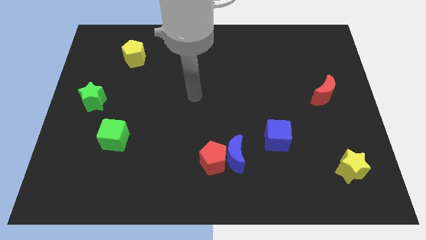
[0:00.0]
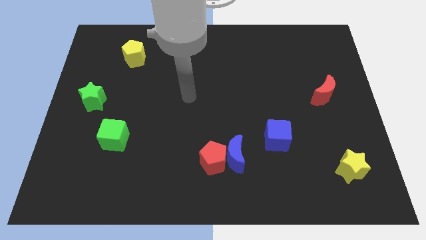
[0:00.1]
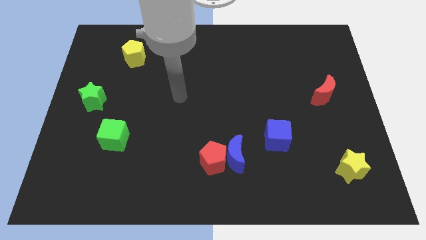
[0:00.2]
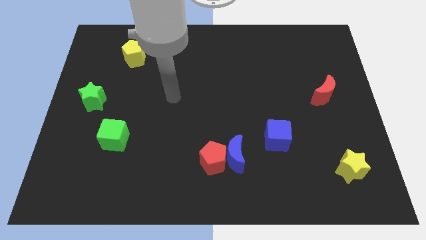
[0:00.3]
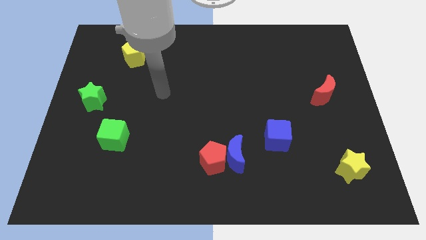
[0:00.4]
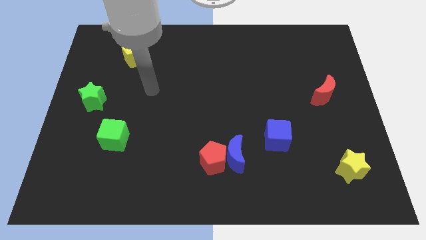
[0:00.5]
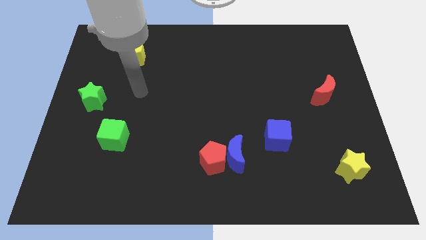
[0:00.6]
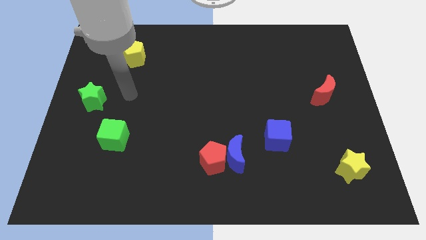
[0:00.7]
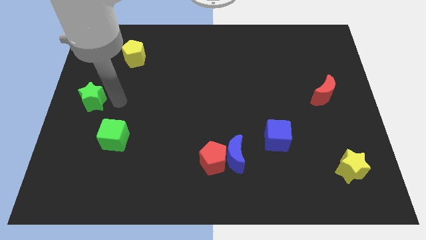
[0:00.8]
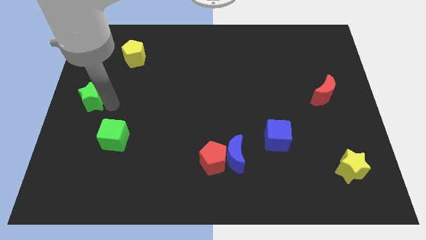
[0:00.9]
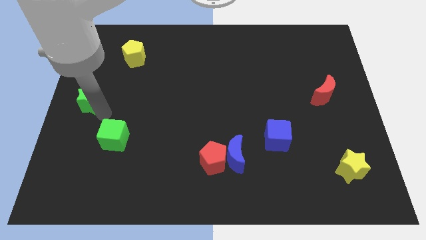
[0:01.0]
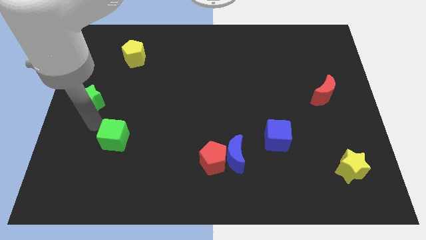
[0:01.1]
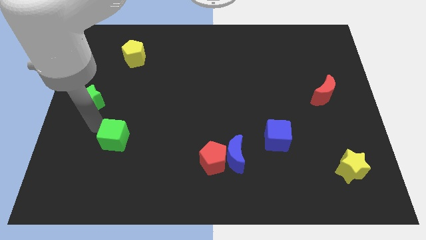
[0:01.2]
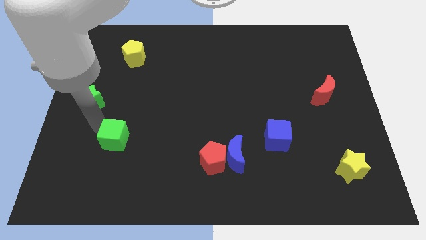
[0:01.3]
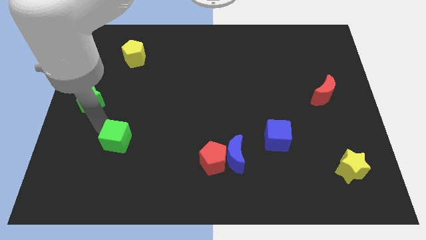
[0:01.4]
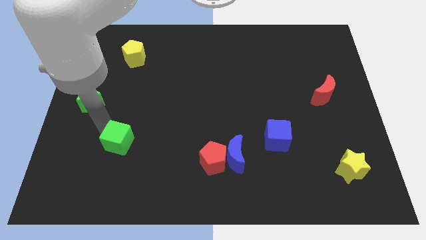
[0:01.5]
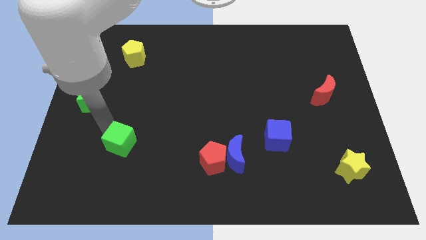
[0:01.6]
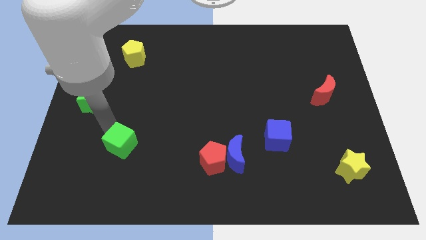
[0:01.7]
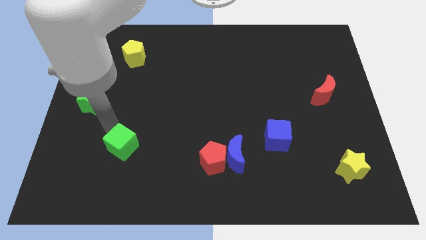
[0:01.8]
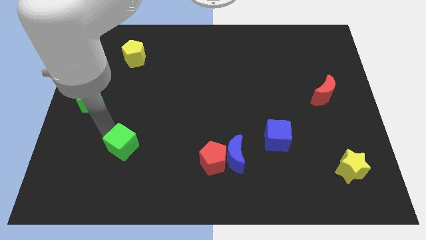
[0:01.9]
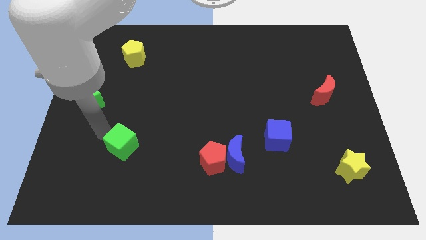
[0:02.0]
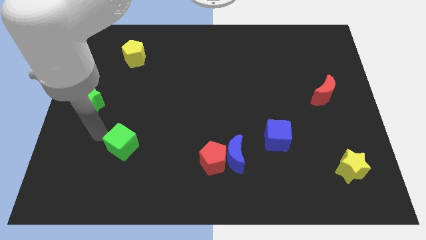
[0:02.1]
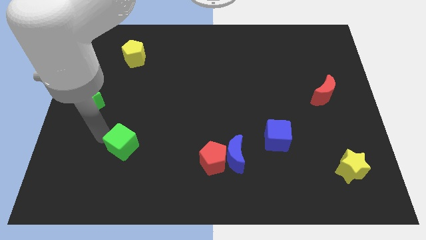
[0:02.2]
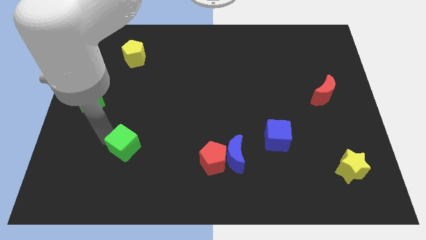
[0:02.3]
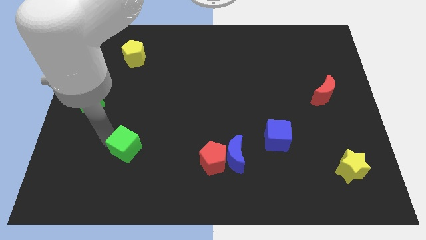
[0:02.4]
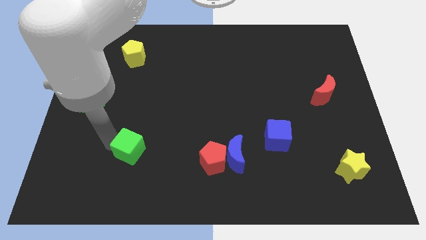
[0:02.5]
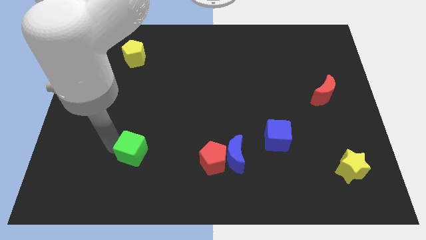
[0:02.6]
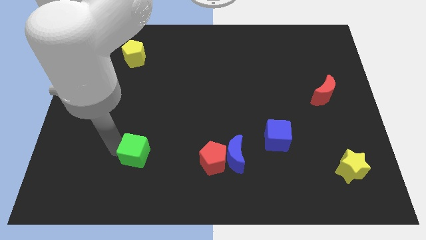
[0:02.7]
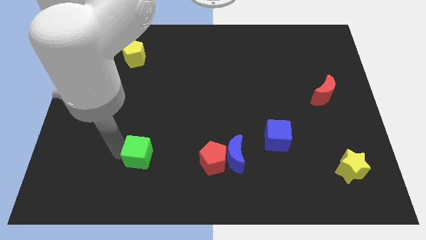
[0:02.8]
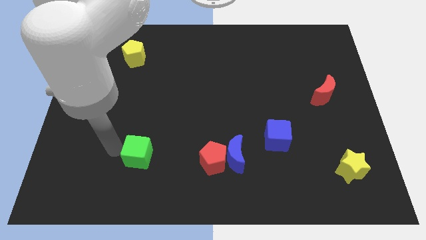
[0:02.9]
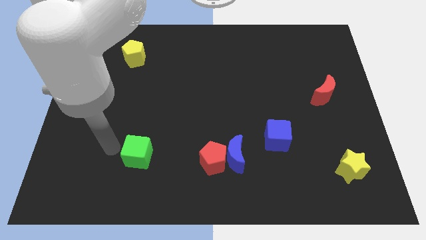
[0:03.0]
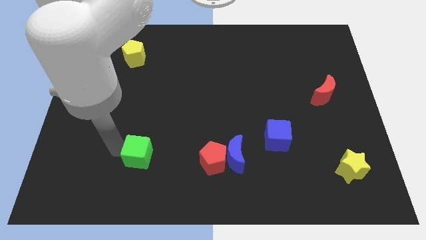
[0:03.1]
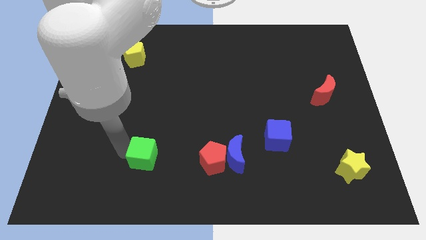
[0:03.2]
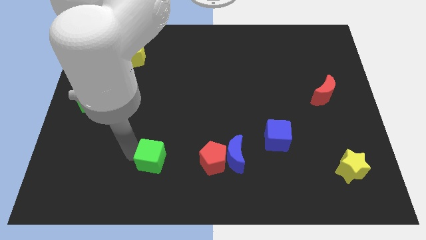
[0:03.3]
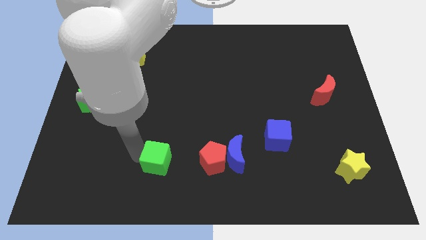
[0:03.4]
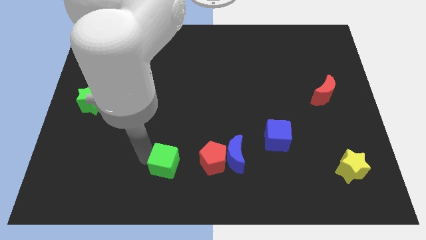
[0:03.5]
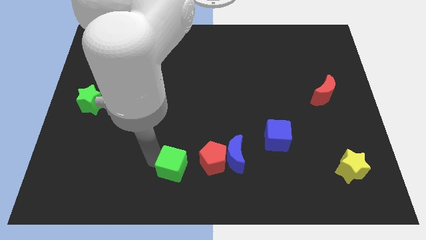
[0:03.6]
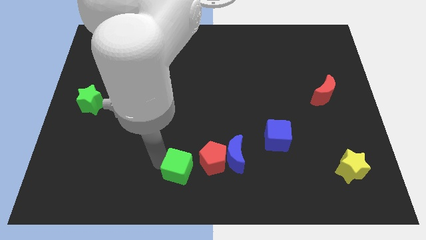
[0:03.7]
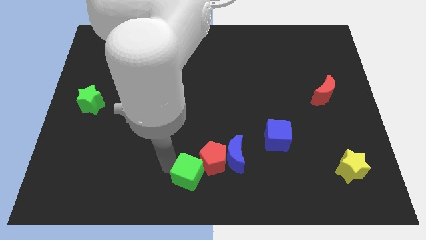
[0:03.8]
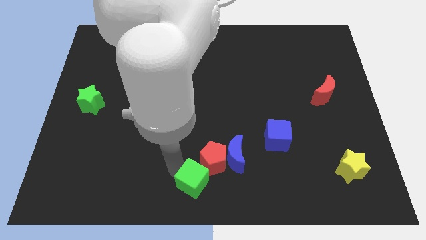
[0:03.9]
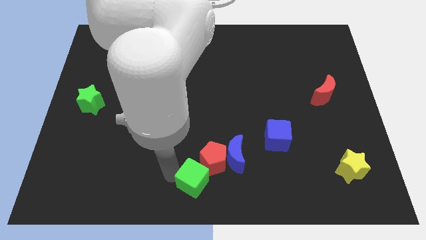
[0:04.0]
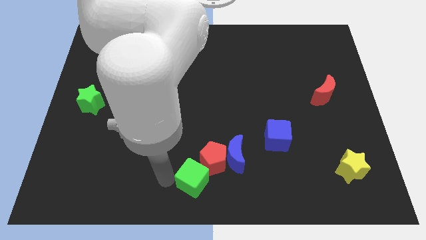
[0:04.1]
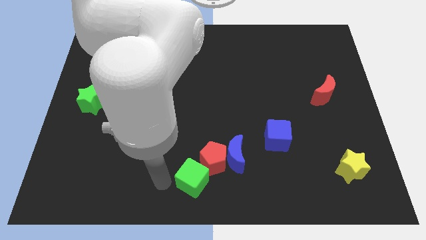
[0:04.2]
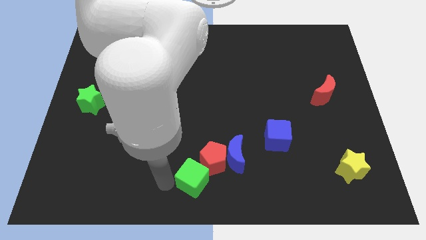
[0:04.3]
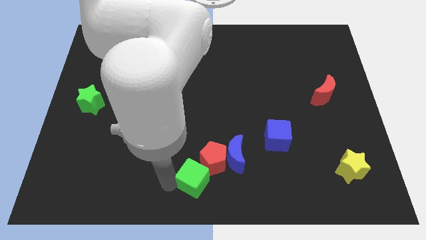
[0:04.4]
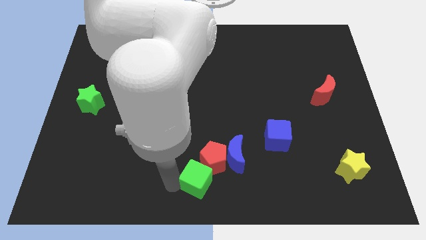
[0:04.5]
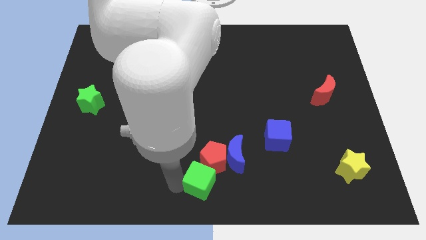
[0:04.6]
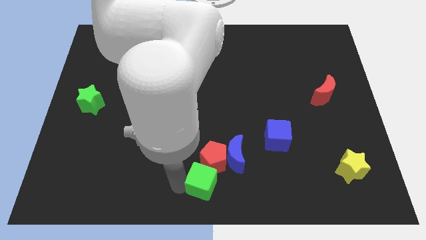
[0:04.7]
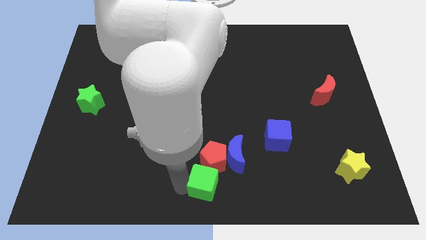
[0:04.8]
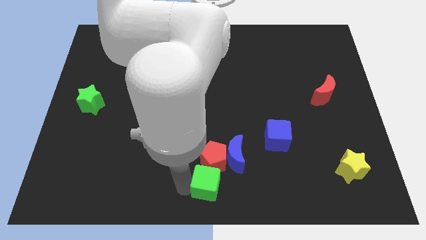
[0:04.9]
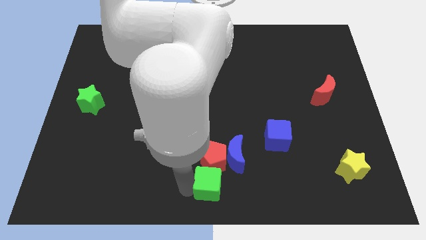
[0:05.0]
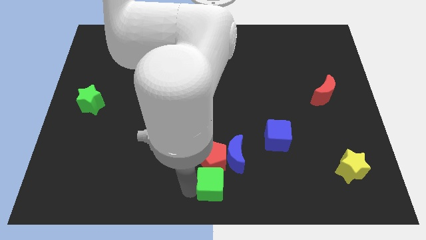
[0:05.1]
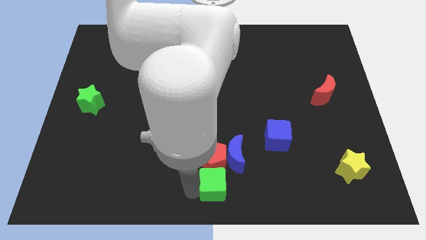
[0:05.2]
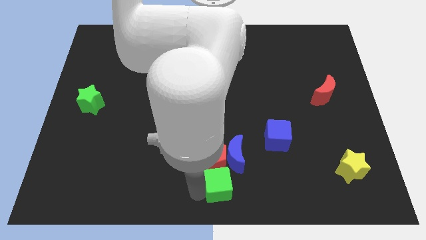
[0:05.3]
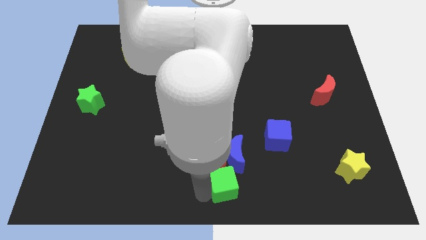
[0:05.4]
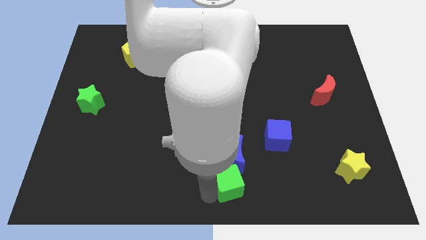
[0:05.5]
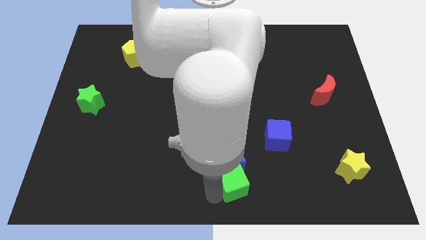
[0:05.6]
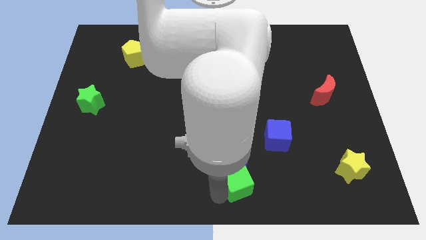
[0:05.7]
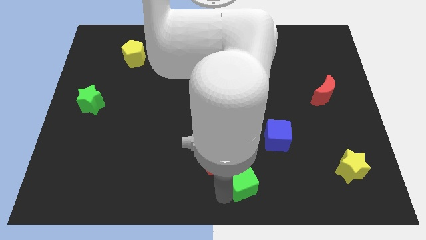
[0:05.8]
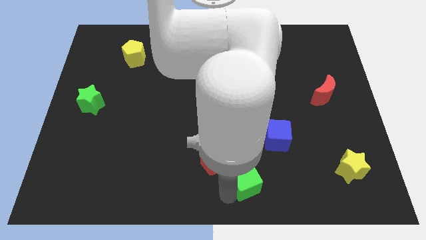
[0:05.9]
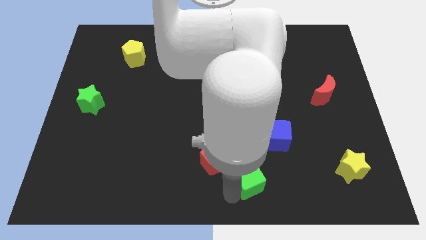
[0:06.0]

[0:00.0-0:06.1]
slide the green cube just right of the red pentagon

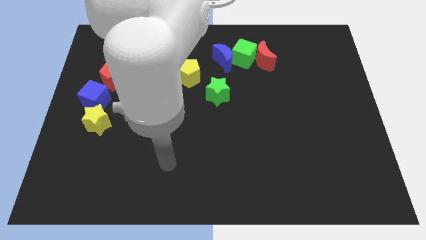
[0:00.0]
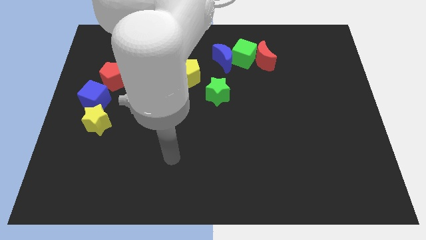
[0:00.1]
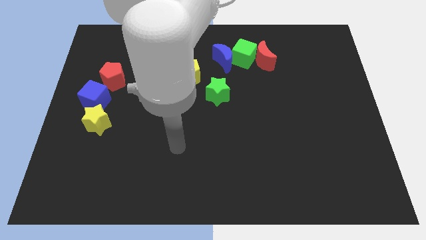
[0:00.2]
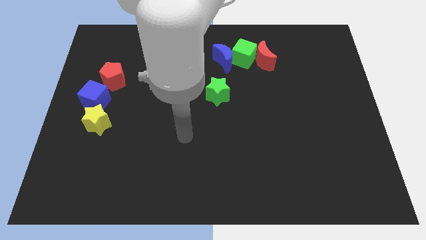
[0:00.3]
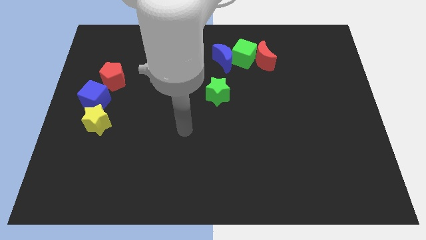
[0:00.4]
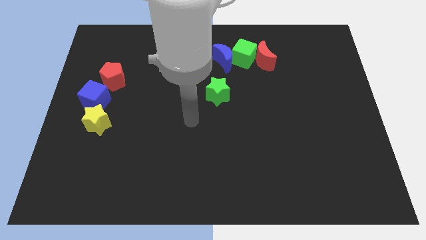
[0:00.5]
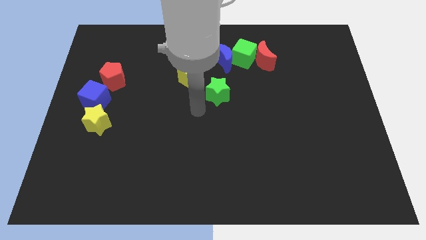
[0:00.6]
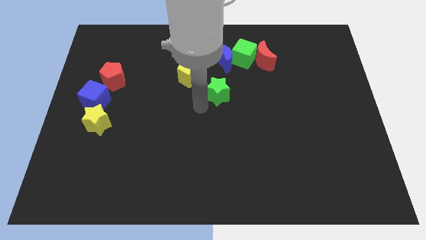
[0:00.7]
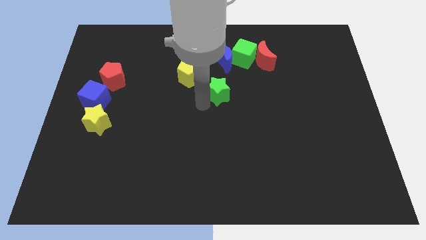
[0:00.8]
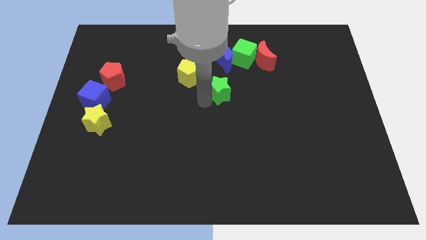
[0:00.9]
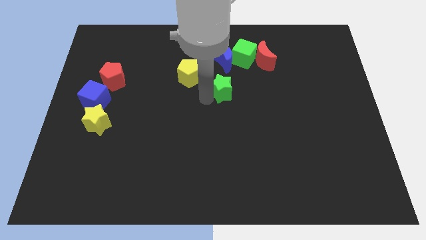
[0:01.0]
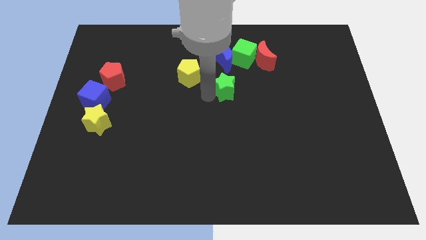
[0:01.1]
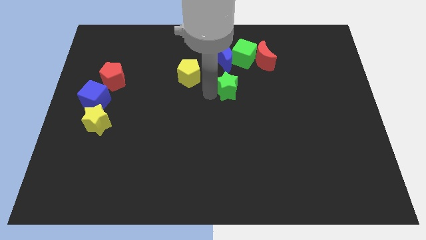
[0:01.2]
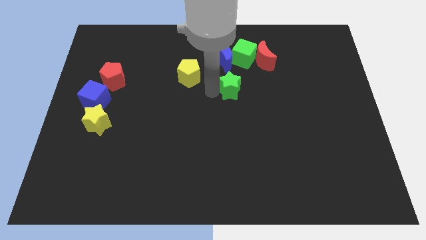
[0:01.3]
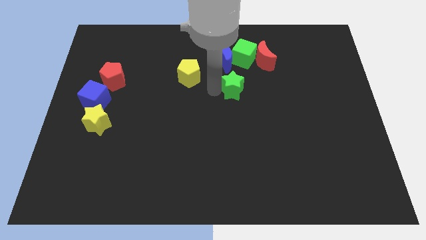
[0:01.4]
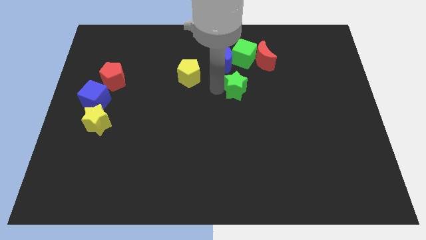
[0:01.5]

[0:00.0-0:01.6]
push the green star diagonally down and to the left of the red moon
